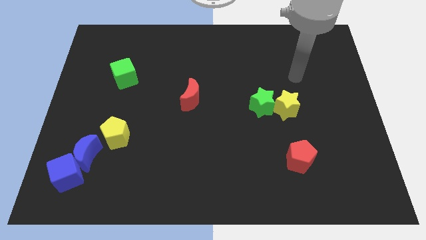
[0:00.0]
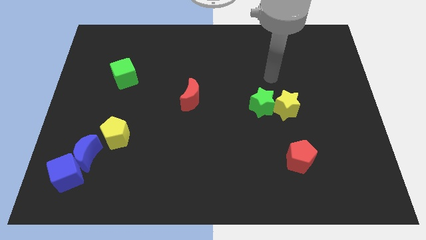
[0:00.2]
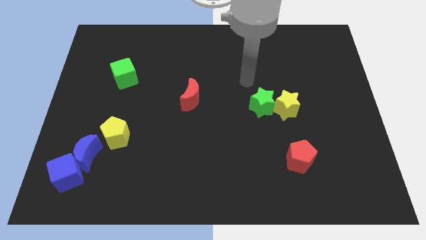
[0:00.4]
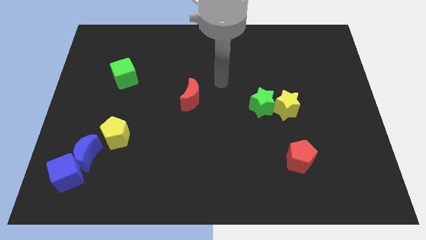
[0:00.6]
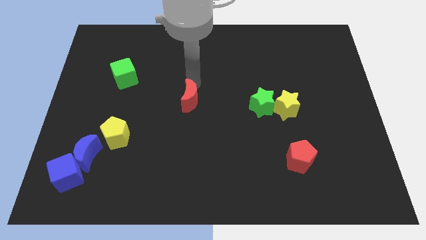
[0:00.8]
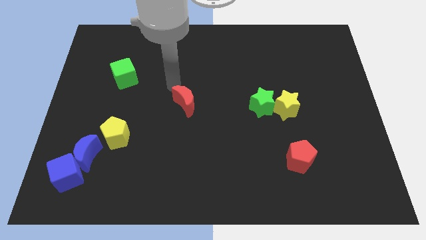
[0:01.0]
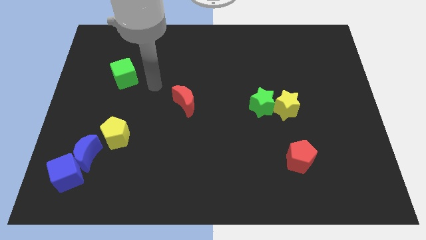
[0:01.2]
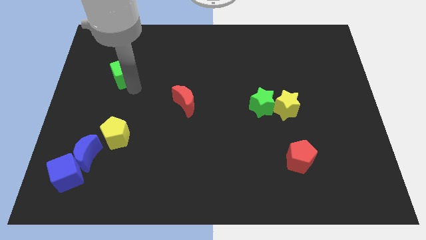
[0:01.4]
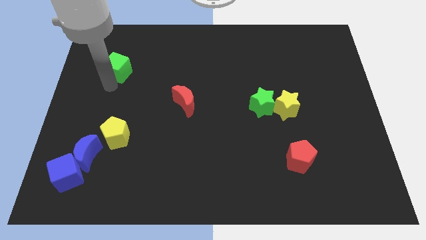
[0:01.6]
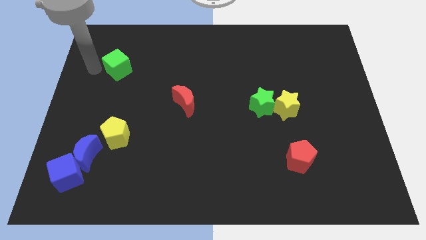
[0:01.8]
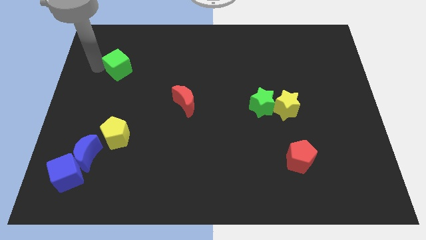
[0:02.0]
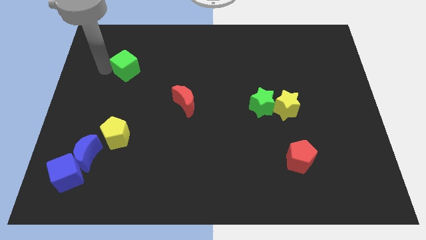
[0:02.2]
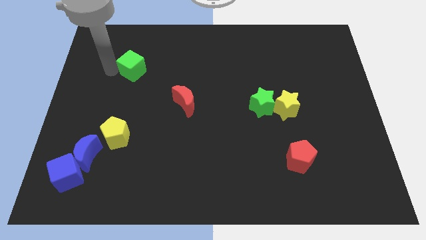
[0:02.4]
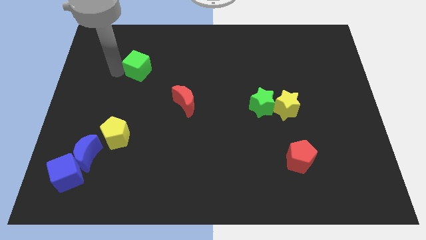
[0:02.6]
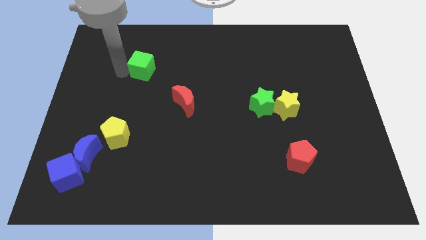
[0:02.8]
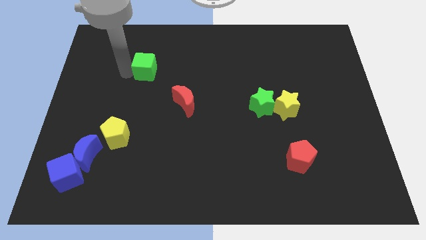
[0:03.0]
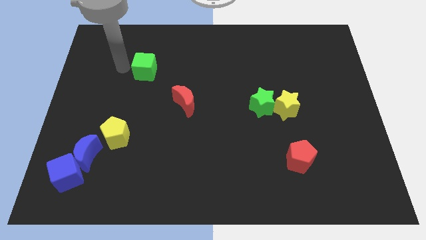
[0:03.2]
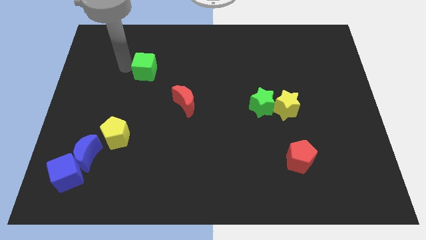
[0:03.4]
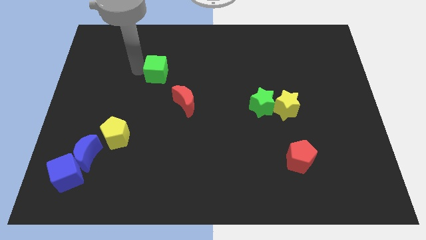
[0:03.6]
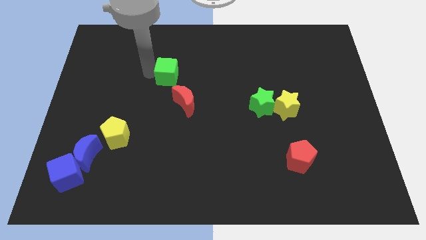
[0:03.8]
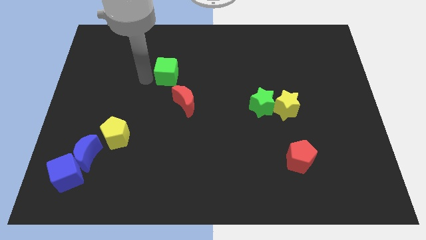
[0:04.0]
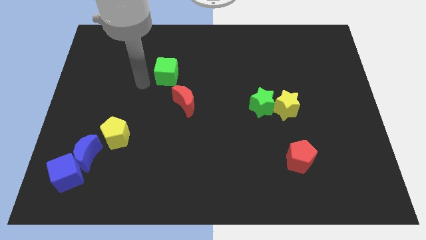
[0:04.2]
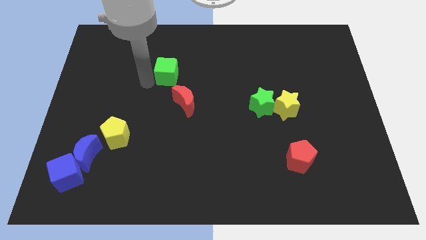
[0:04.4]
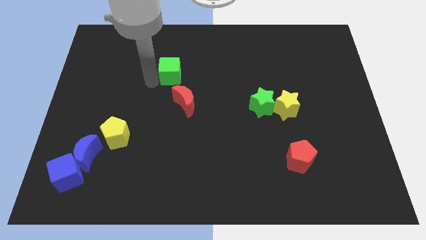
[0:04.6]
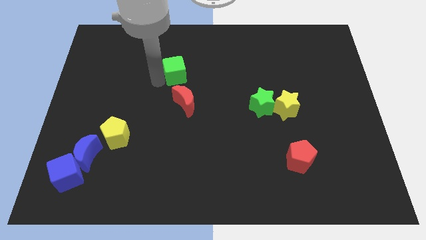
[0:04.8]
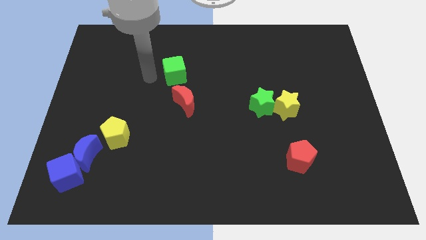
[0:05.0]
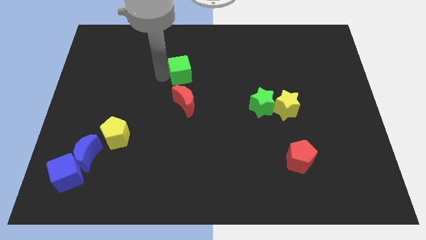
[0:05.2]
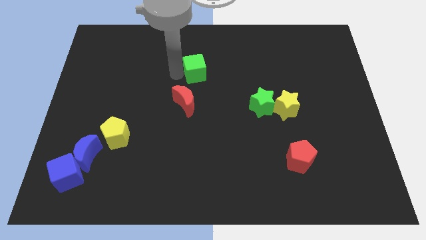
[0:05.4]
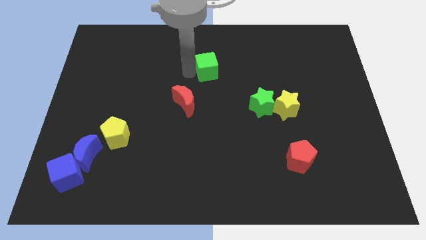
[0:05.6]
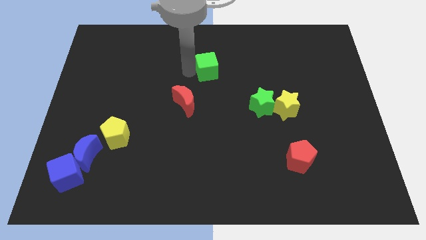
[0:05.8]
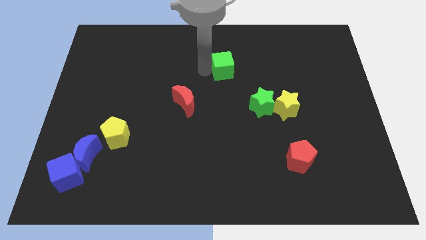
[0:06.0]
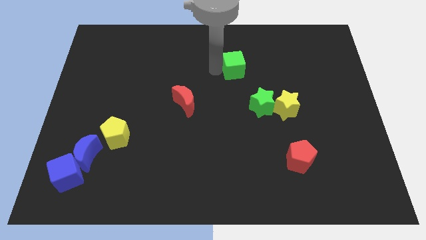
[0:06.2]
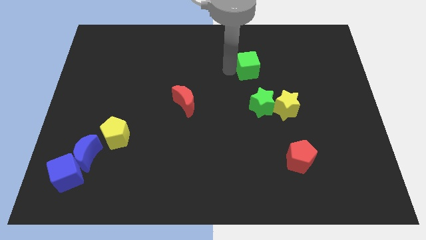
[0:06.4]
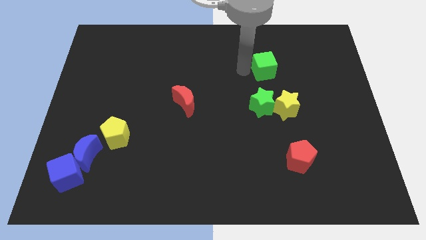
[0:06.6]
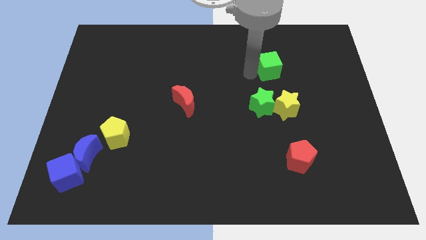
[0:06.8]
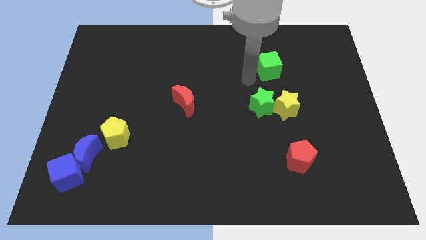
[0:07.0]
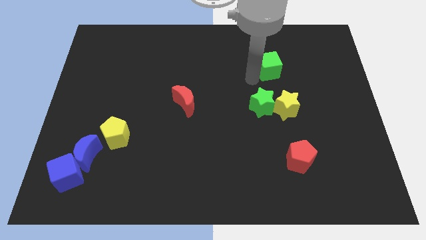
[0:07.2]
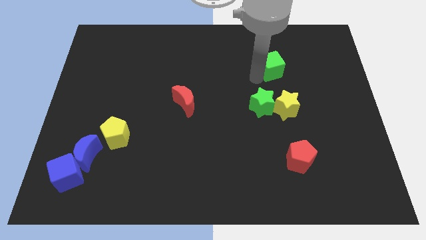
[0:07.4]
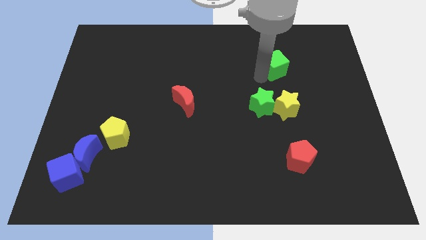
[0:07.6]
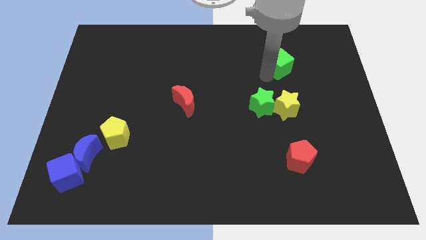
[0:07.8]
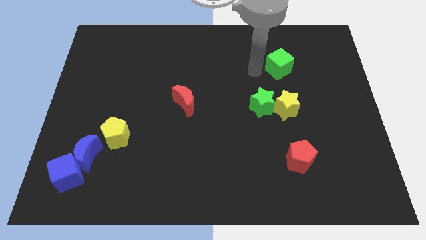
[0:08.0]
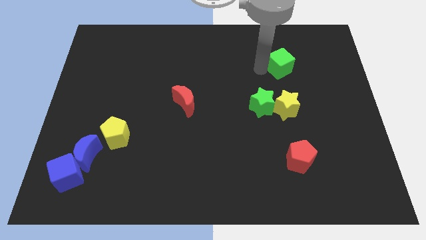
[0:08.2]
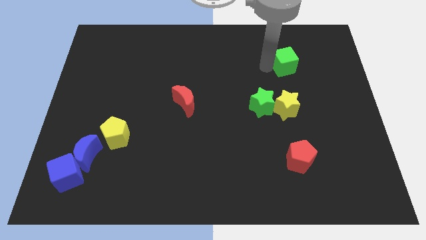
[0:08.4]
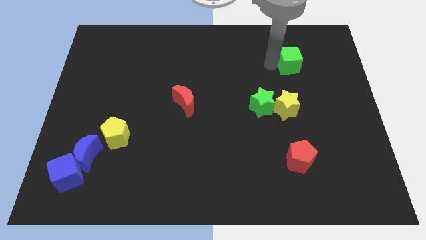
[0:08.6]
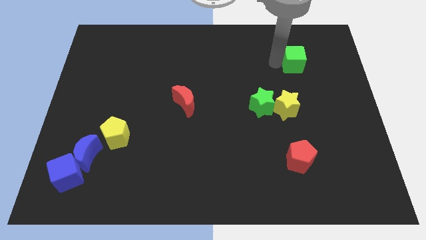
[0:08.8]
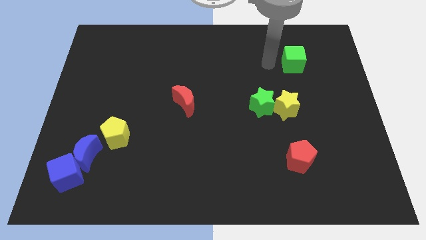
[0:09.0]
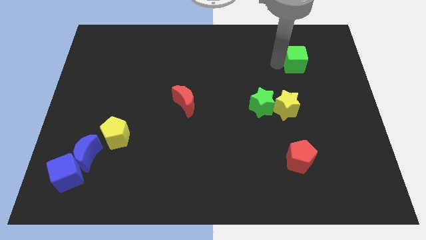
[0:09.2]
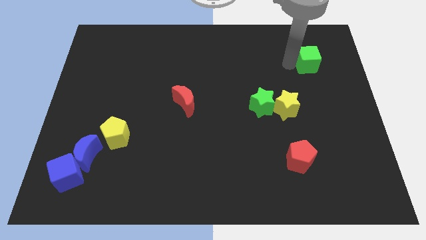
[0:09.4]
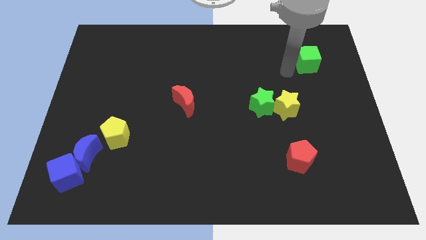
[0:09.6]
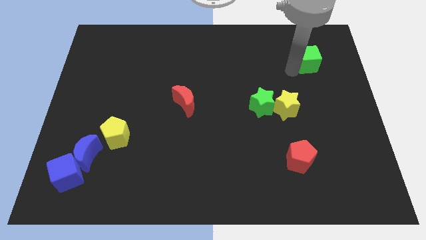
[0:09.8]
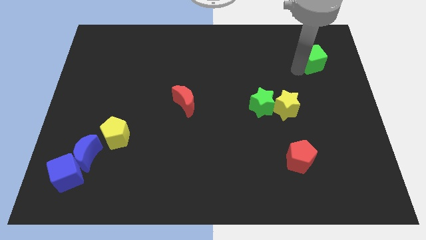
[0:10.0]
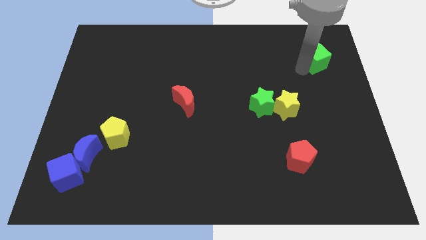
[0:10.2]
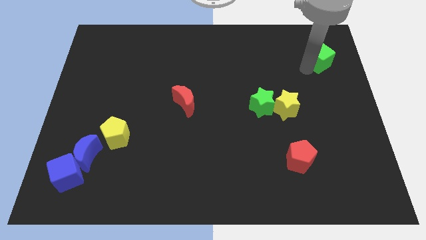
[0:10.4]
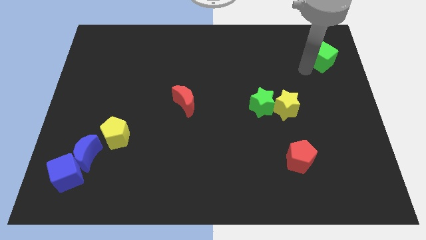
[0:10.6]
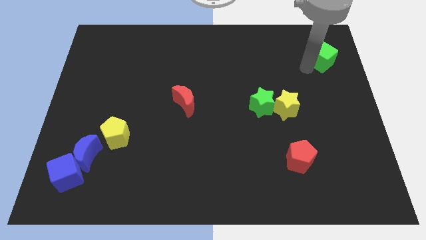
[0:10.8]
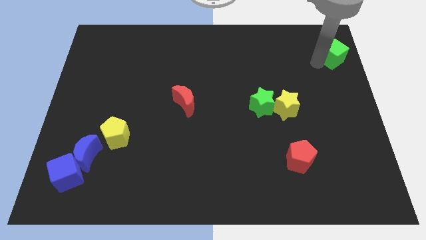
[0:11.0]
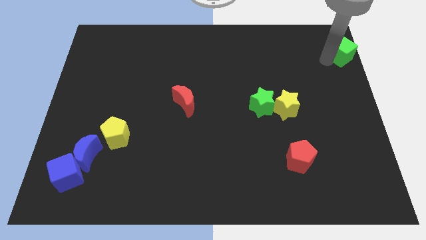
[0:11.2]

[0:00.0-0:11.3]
put the green cube to the upper right corner
